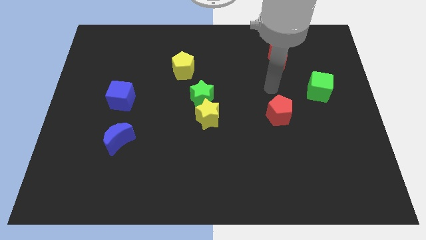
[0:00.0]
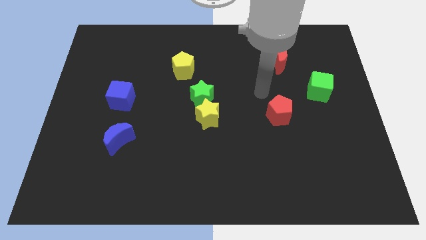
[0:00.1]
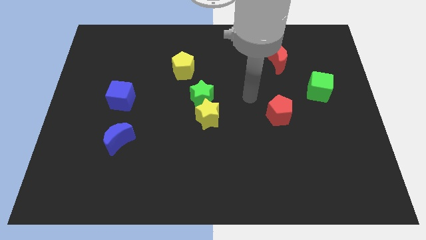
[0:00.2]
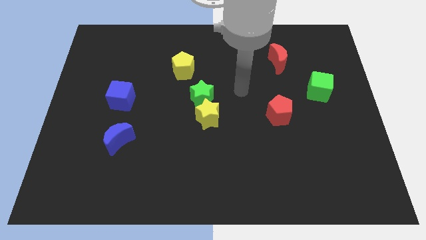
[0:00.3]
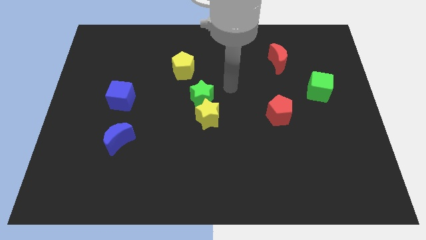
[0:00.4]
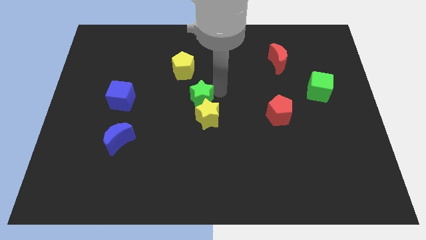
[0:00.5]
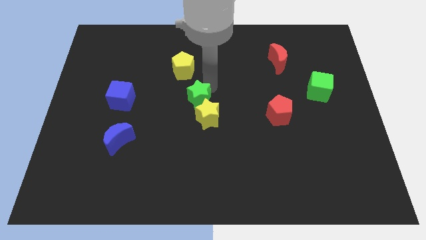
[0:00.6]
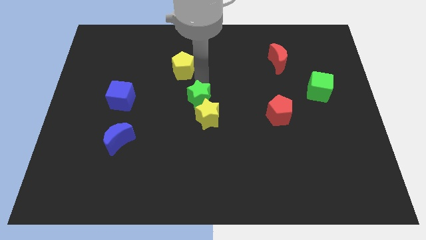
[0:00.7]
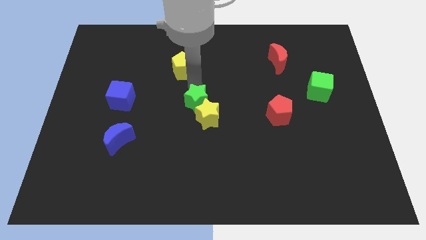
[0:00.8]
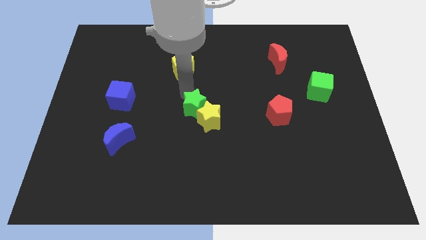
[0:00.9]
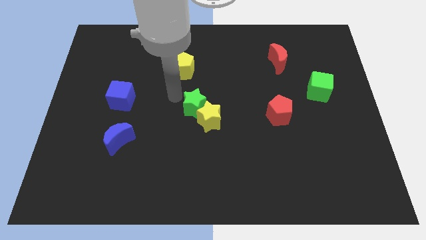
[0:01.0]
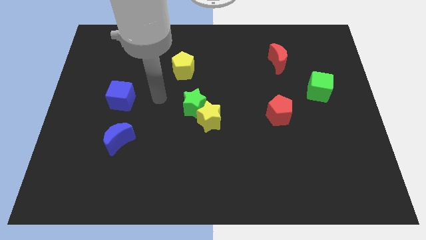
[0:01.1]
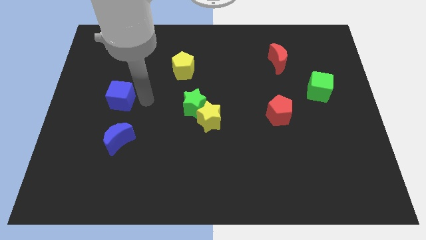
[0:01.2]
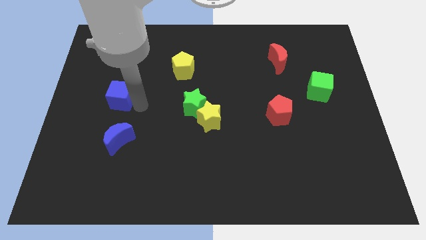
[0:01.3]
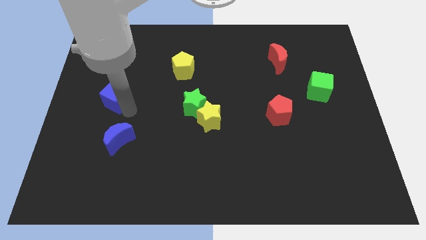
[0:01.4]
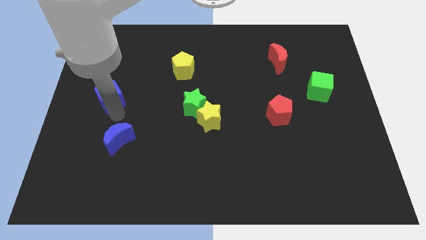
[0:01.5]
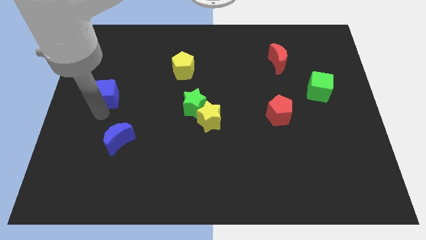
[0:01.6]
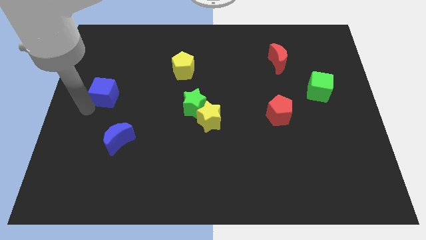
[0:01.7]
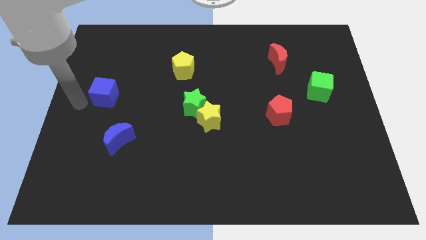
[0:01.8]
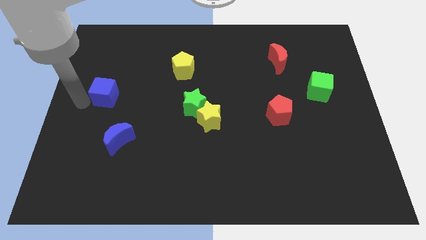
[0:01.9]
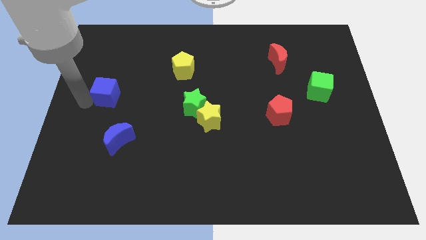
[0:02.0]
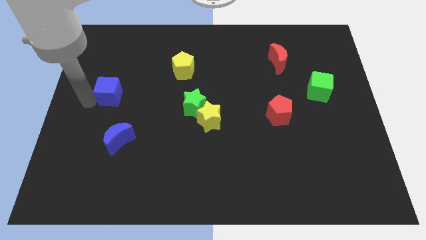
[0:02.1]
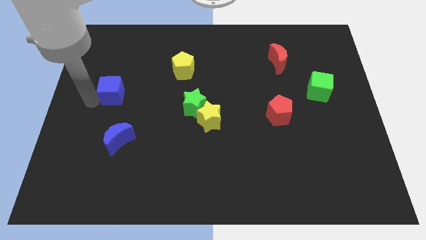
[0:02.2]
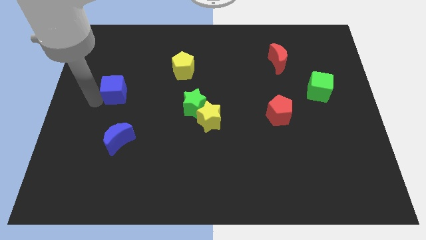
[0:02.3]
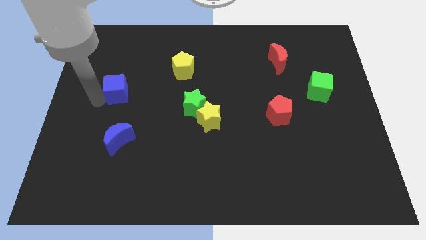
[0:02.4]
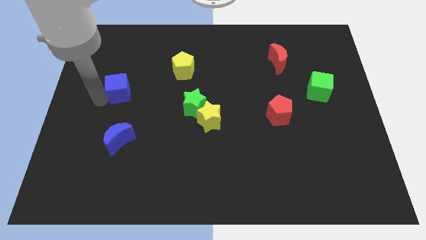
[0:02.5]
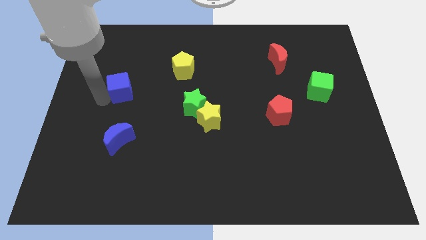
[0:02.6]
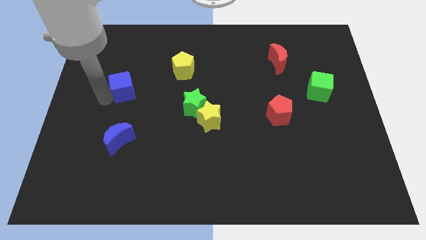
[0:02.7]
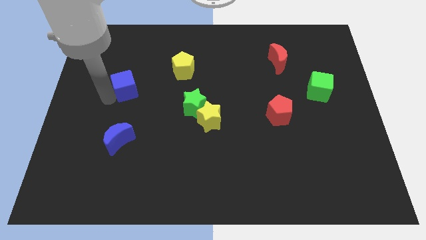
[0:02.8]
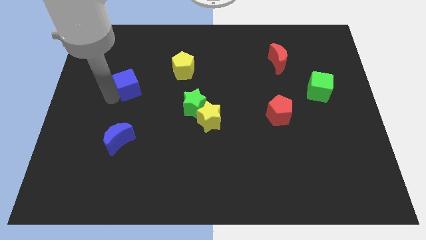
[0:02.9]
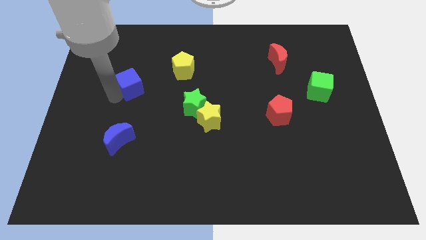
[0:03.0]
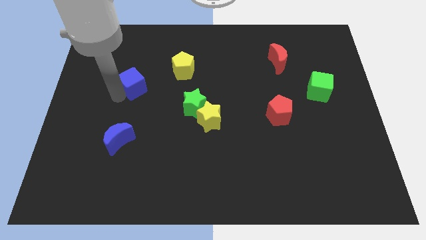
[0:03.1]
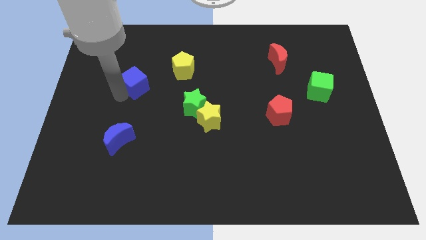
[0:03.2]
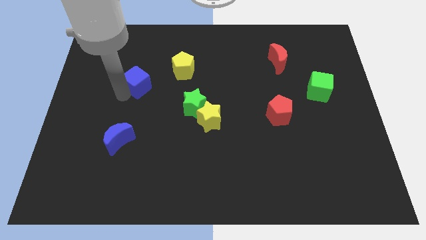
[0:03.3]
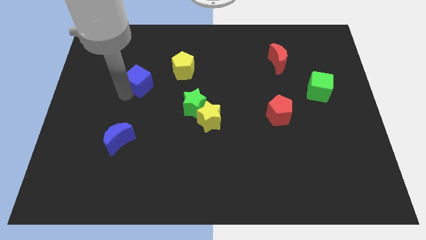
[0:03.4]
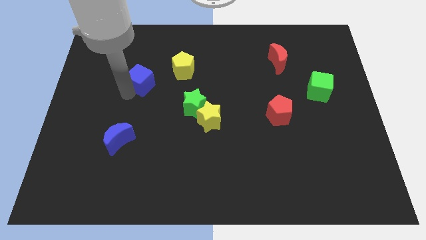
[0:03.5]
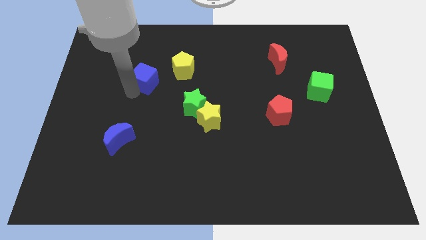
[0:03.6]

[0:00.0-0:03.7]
move the blue cube a bit up and to the right diagonally

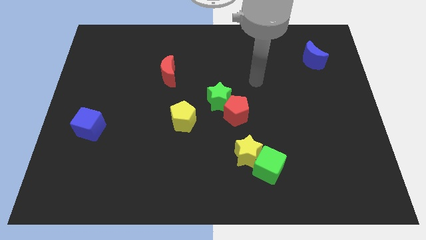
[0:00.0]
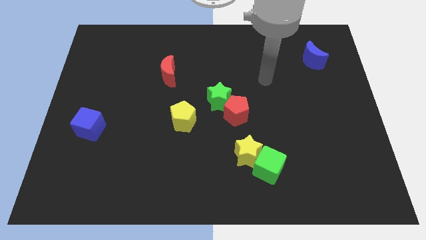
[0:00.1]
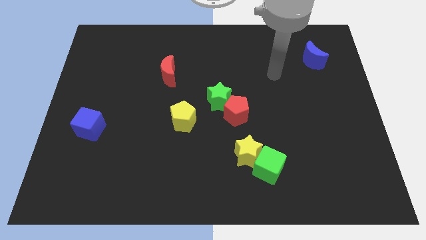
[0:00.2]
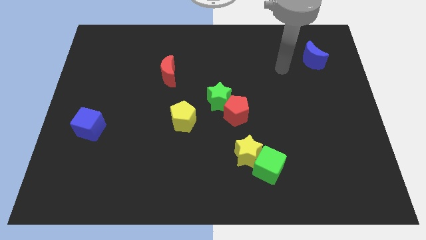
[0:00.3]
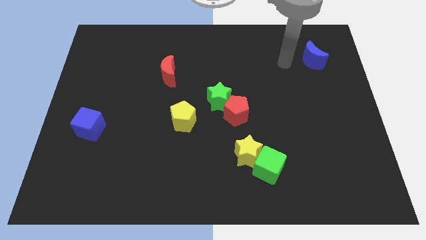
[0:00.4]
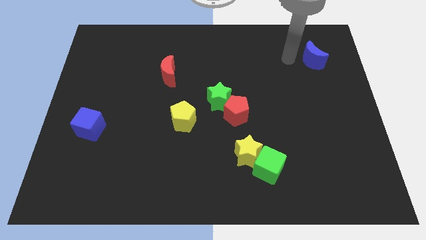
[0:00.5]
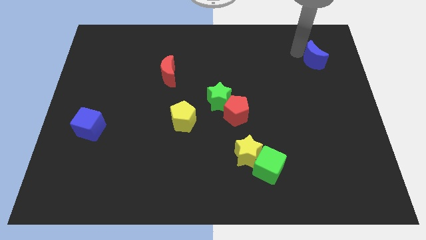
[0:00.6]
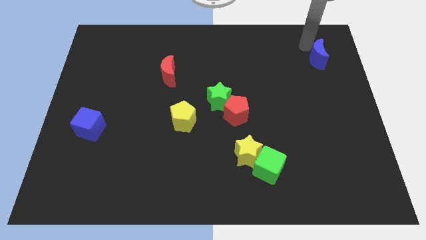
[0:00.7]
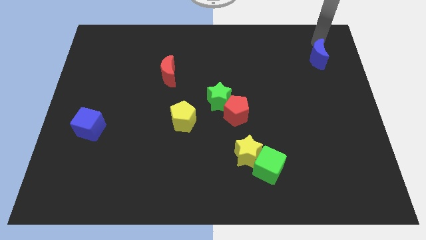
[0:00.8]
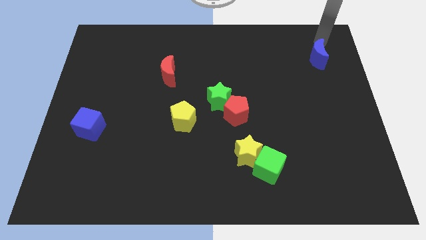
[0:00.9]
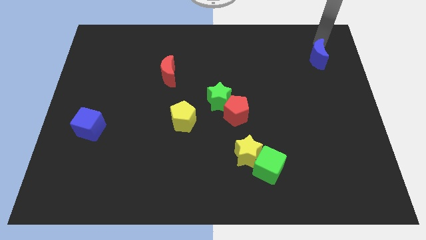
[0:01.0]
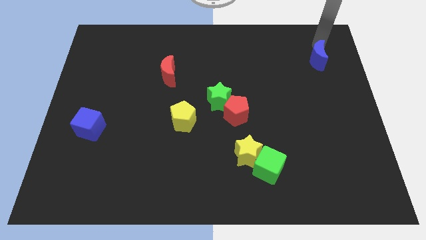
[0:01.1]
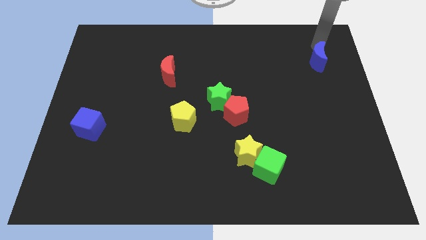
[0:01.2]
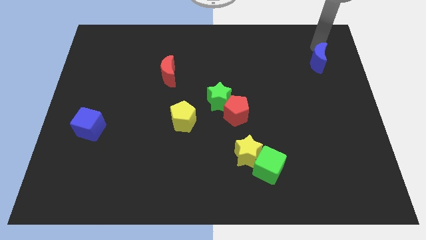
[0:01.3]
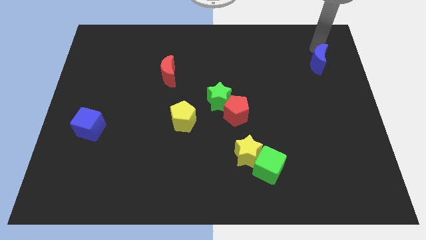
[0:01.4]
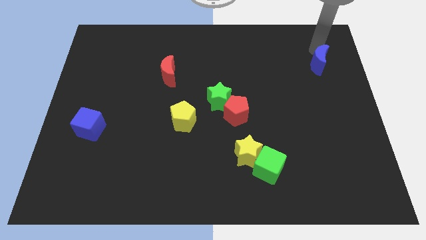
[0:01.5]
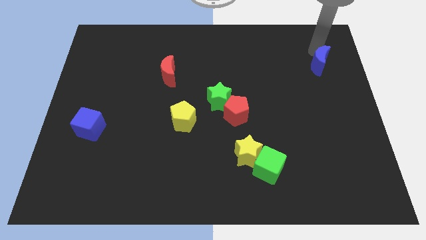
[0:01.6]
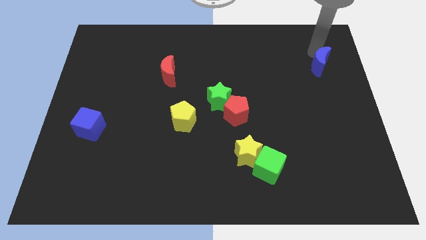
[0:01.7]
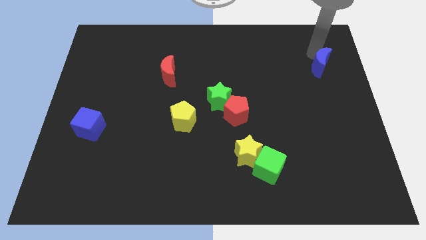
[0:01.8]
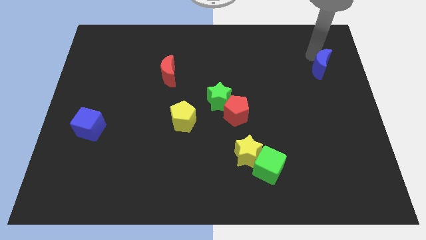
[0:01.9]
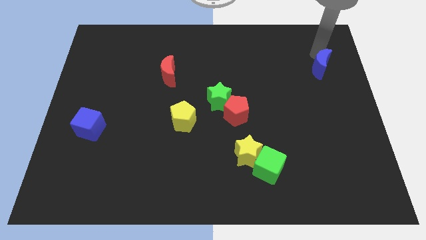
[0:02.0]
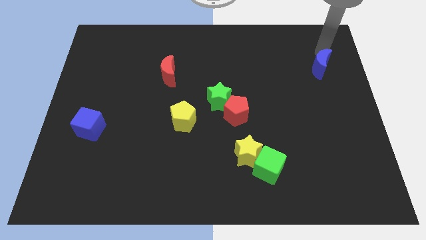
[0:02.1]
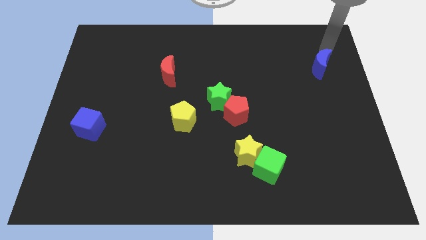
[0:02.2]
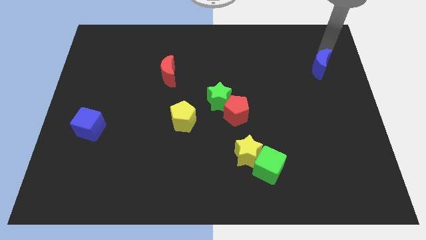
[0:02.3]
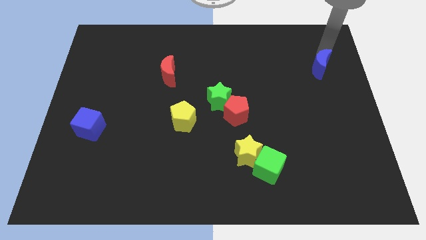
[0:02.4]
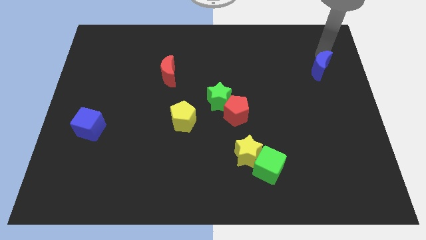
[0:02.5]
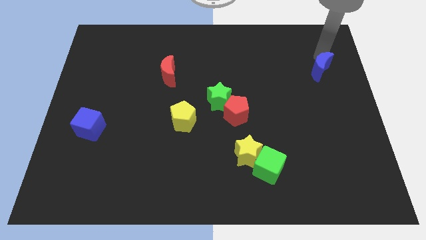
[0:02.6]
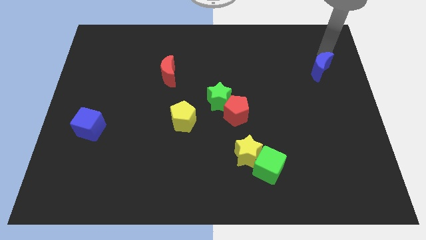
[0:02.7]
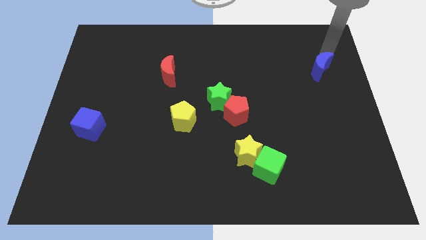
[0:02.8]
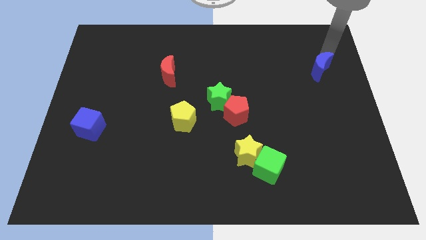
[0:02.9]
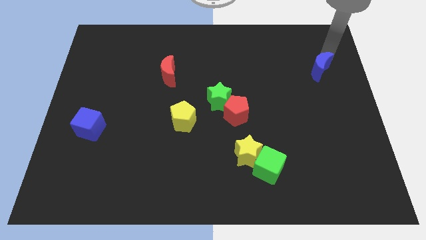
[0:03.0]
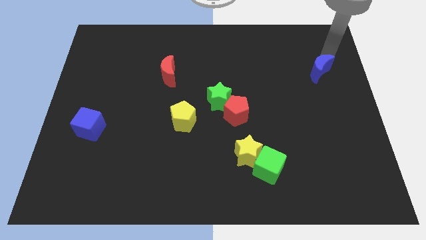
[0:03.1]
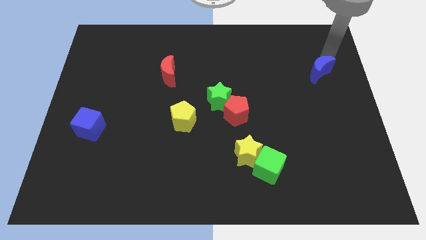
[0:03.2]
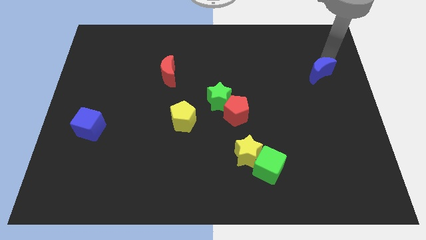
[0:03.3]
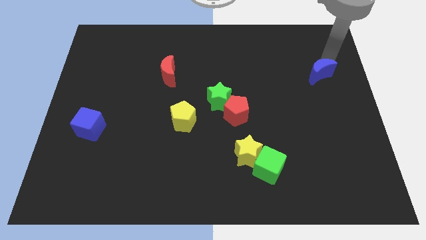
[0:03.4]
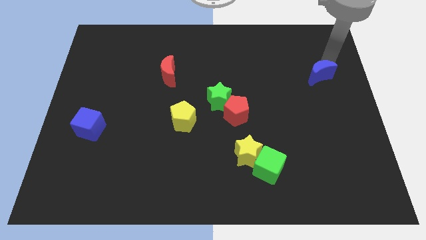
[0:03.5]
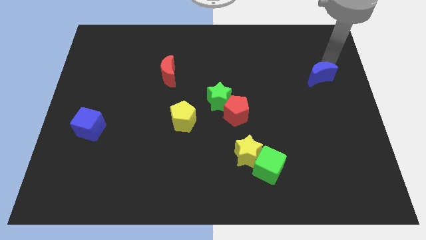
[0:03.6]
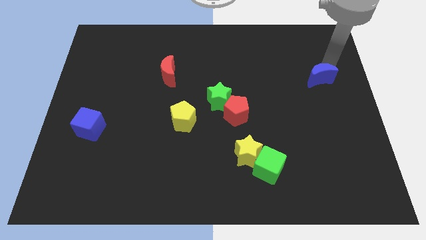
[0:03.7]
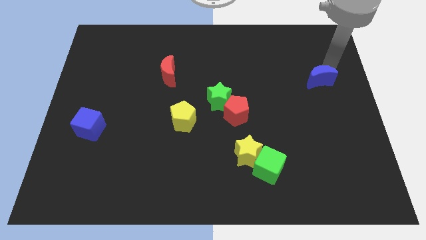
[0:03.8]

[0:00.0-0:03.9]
move the blue moon down slightly

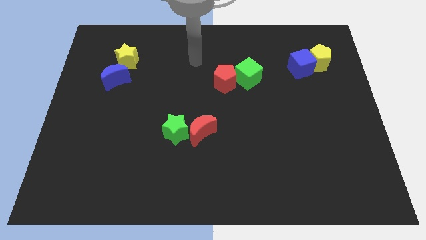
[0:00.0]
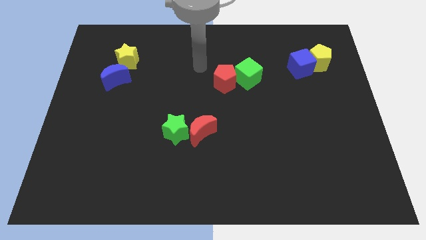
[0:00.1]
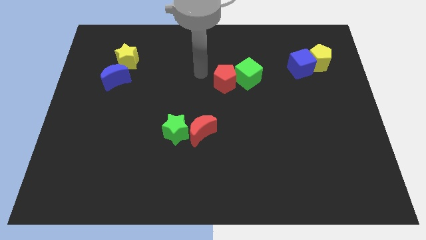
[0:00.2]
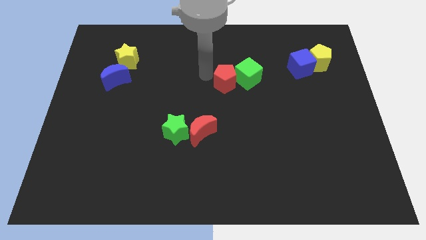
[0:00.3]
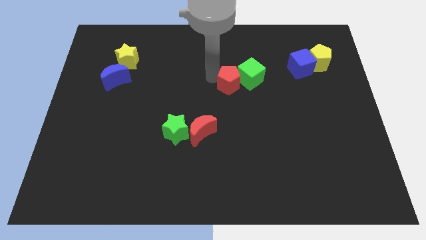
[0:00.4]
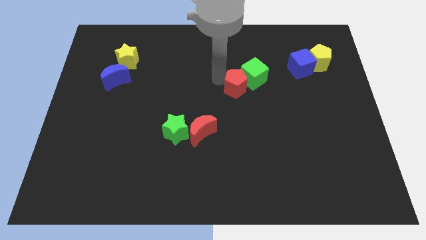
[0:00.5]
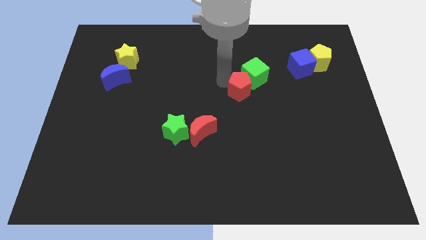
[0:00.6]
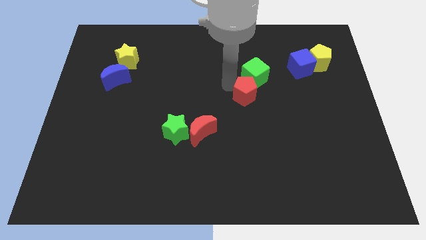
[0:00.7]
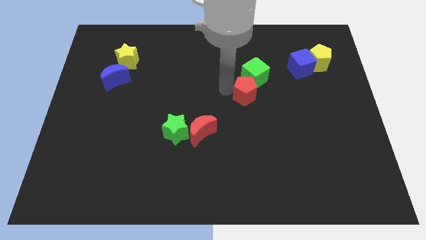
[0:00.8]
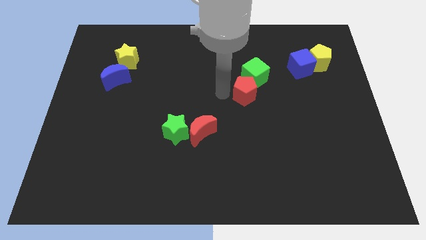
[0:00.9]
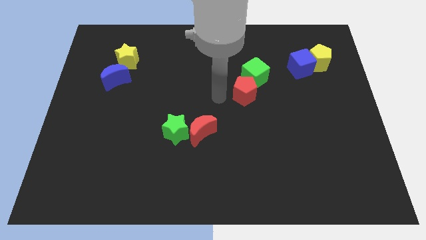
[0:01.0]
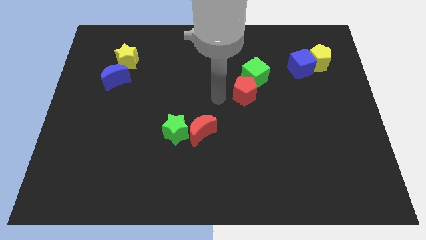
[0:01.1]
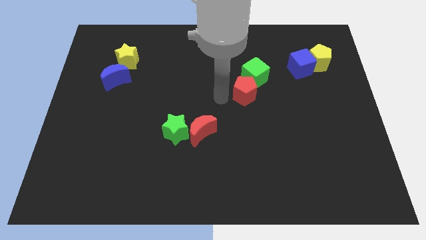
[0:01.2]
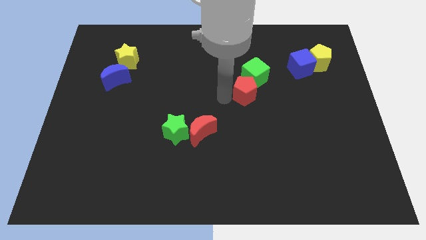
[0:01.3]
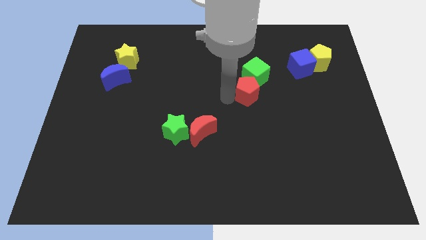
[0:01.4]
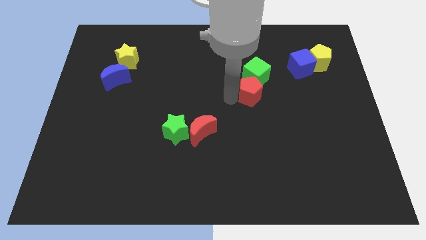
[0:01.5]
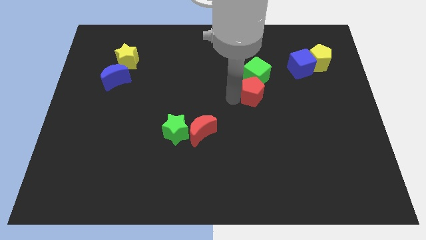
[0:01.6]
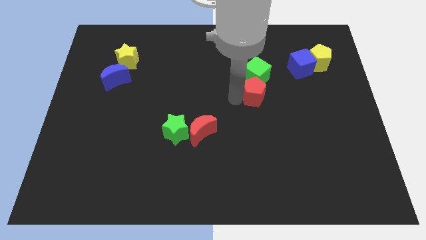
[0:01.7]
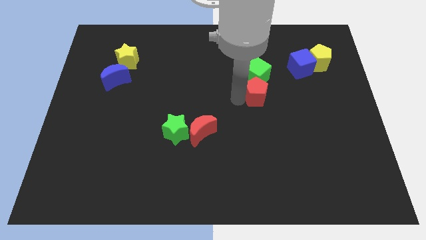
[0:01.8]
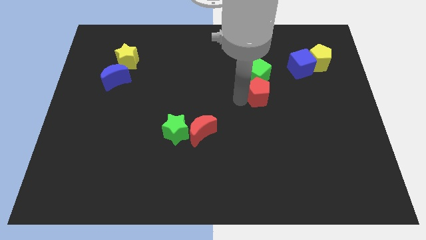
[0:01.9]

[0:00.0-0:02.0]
slightly move the red pentagon right
